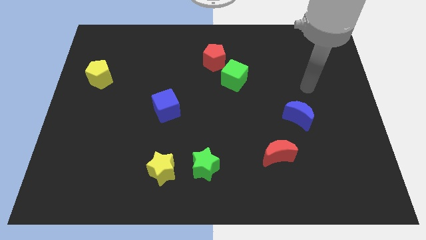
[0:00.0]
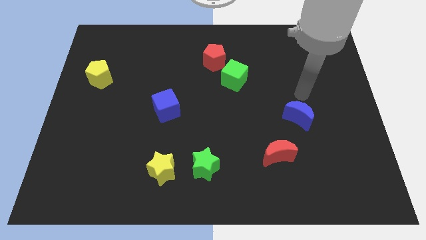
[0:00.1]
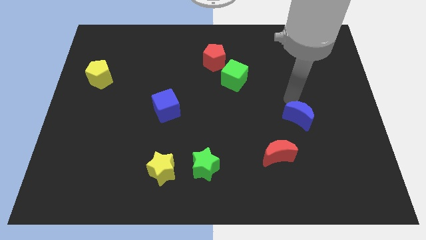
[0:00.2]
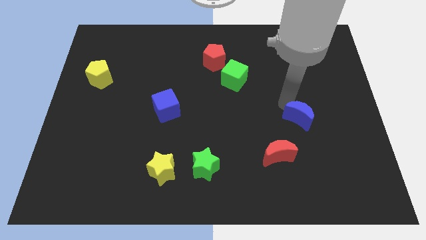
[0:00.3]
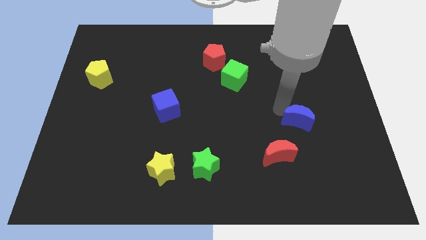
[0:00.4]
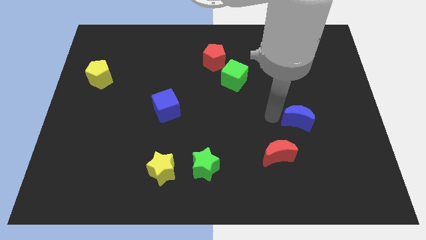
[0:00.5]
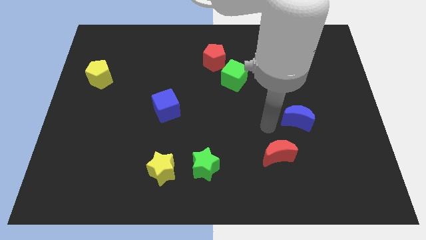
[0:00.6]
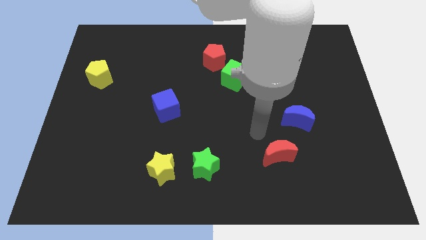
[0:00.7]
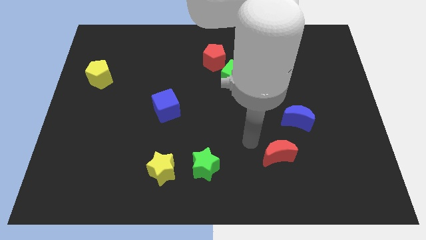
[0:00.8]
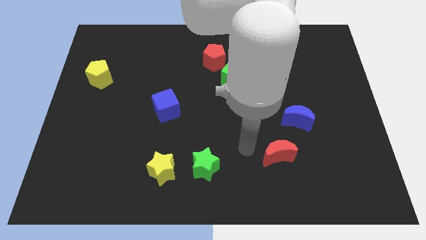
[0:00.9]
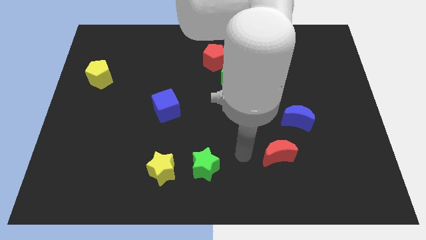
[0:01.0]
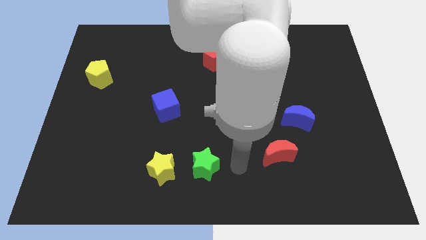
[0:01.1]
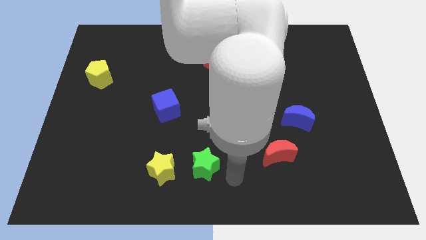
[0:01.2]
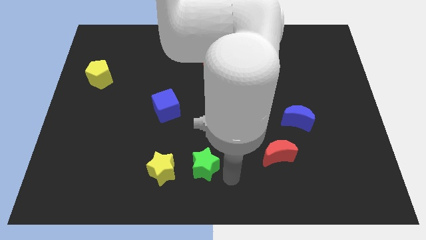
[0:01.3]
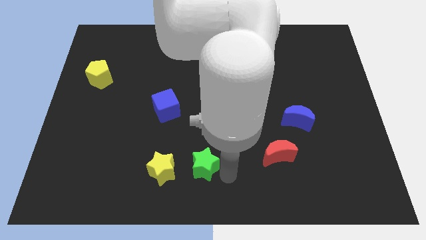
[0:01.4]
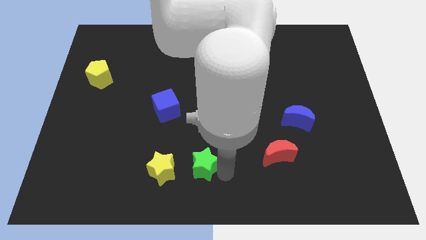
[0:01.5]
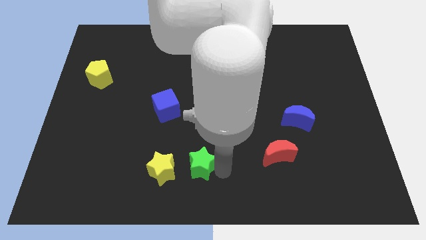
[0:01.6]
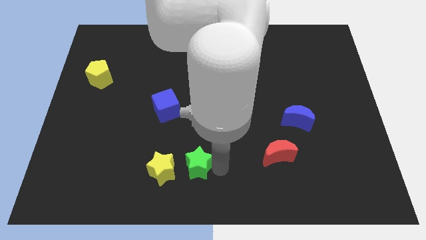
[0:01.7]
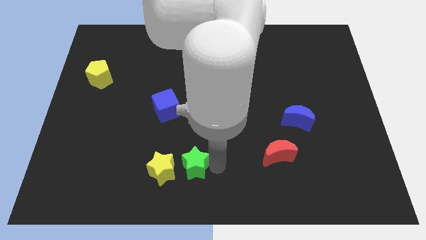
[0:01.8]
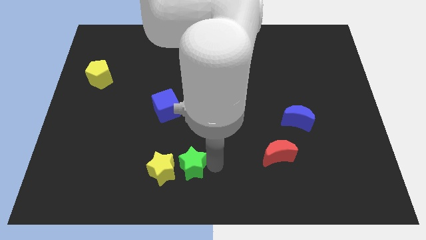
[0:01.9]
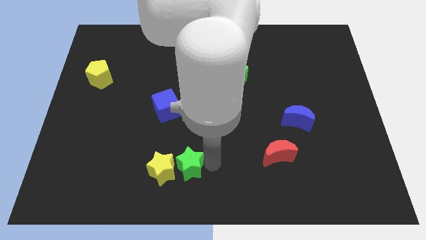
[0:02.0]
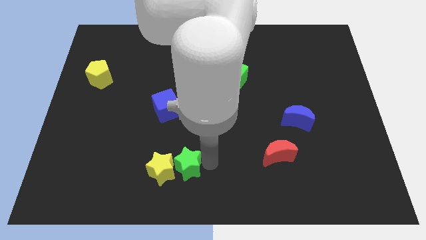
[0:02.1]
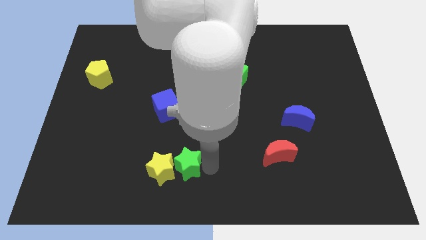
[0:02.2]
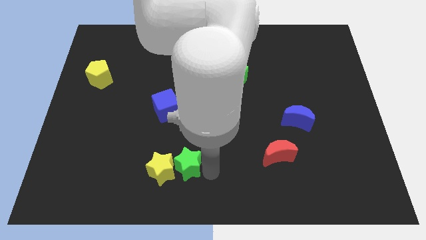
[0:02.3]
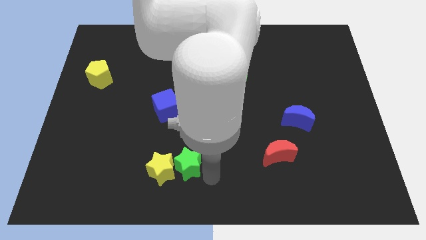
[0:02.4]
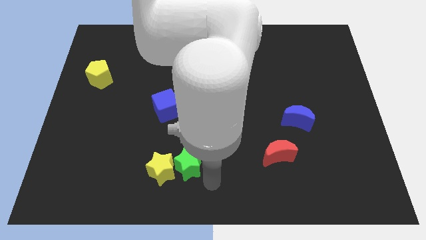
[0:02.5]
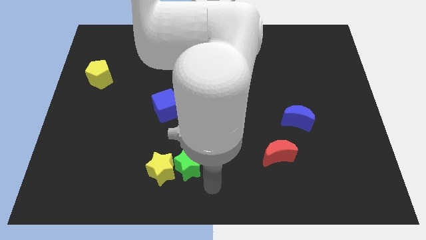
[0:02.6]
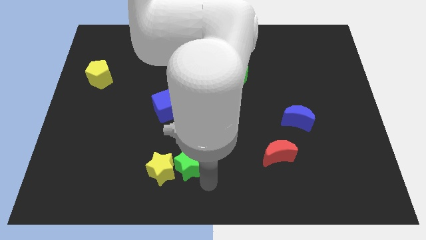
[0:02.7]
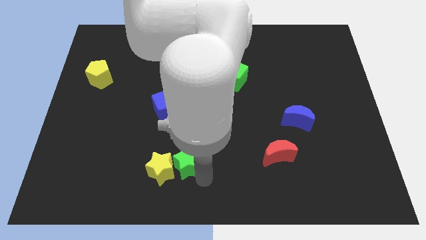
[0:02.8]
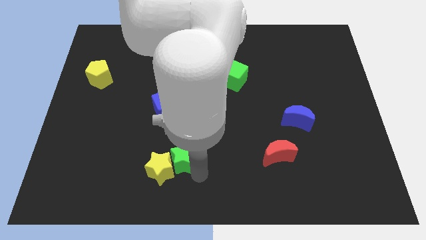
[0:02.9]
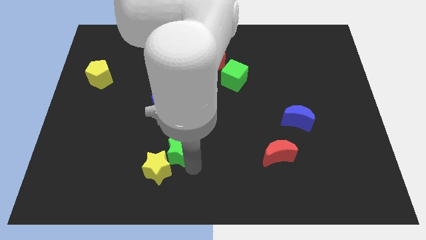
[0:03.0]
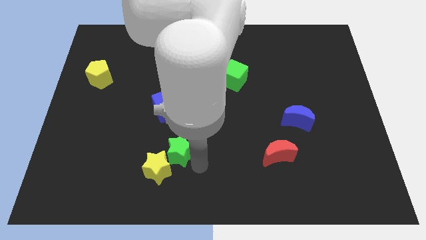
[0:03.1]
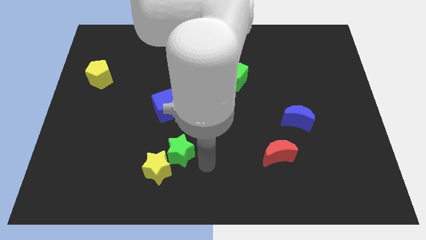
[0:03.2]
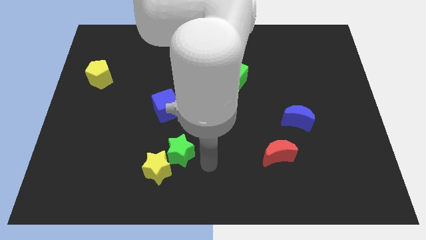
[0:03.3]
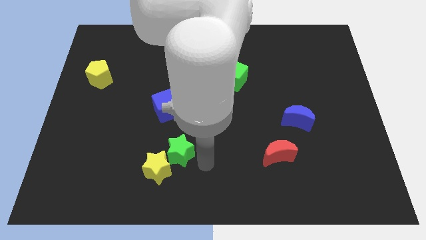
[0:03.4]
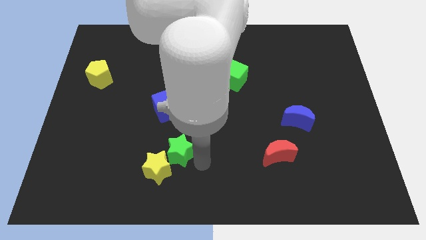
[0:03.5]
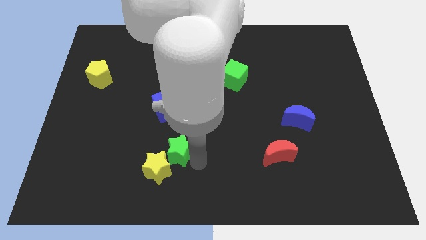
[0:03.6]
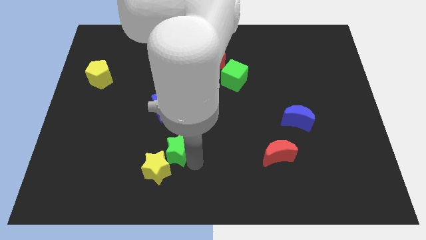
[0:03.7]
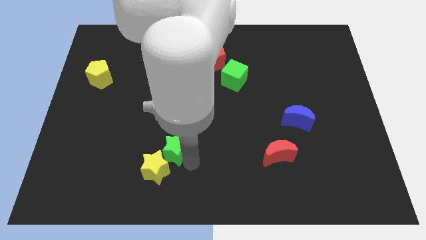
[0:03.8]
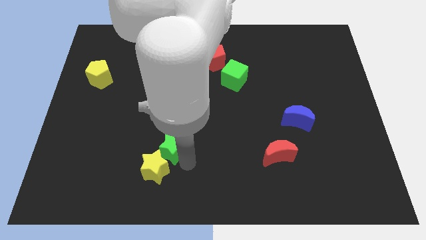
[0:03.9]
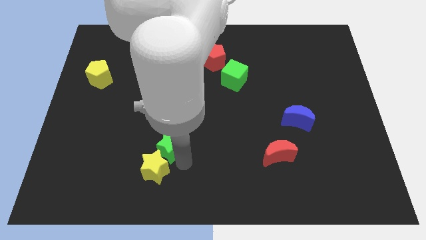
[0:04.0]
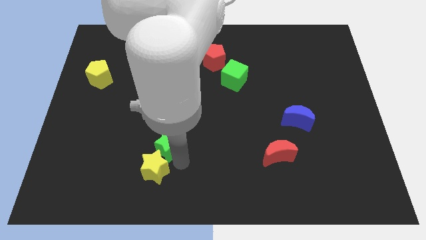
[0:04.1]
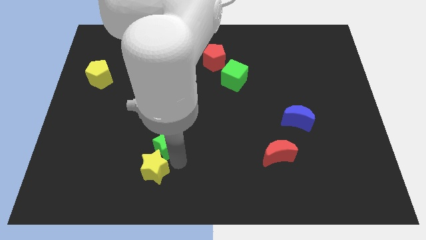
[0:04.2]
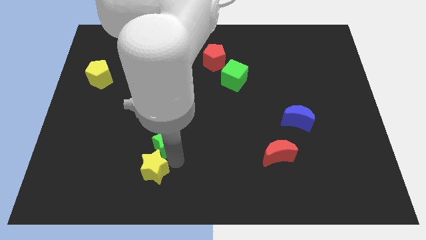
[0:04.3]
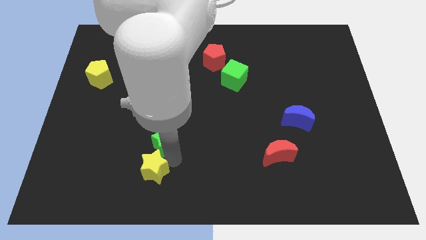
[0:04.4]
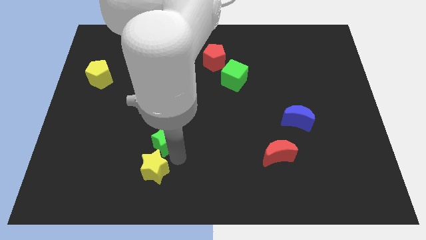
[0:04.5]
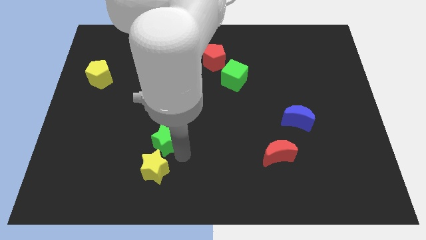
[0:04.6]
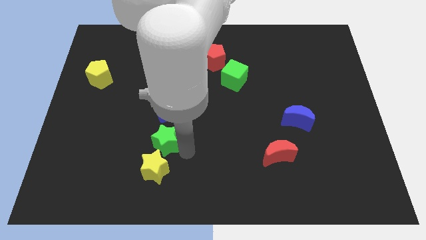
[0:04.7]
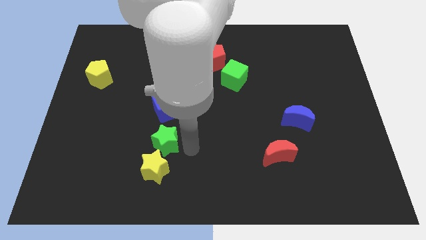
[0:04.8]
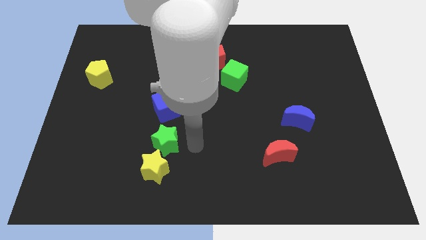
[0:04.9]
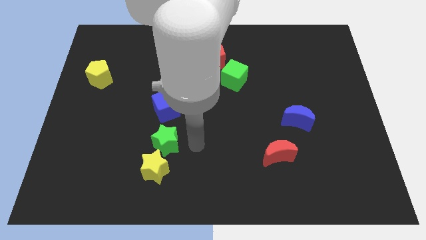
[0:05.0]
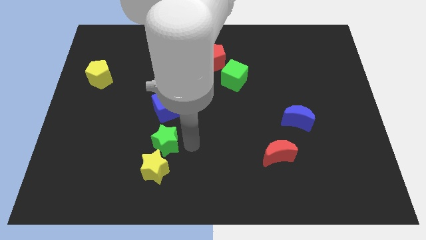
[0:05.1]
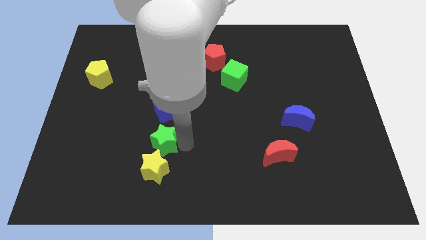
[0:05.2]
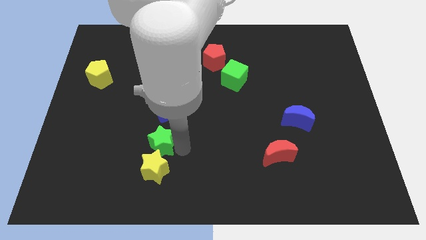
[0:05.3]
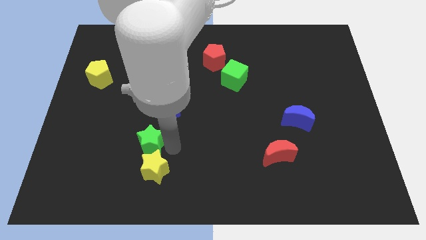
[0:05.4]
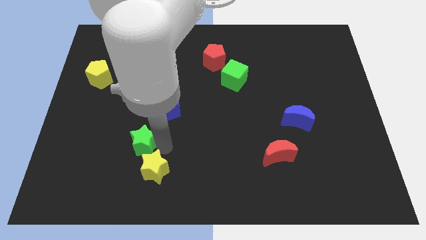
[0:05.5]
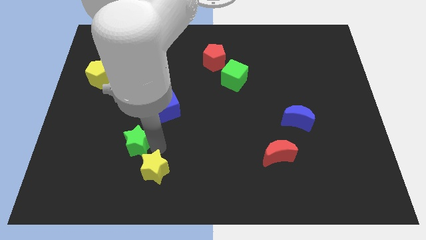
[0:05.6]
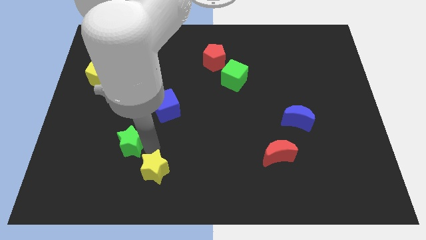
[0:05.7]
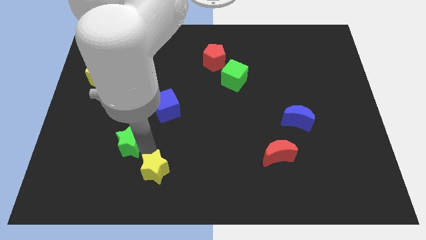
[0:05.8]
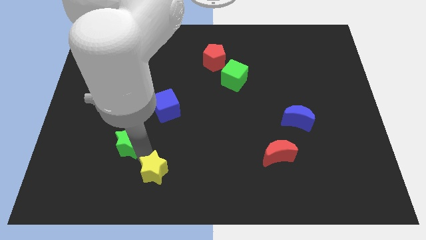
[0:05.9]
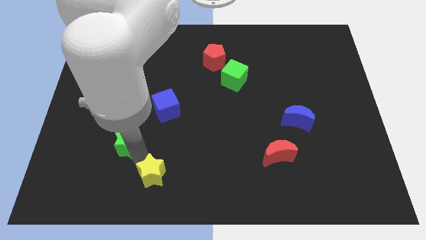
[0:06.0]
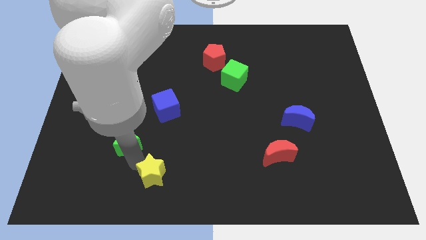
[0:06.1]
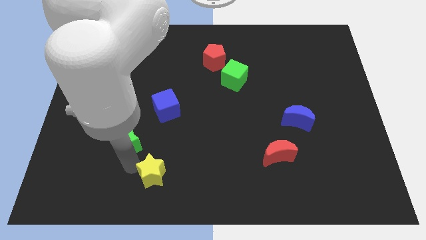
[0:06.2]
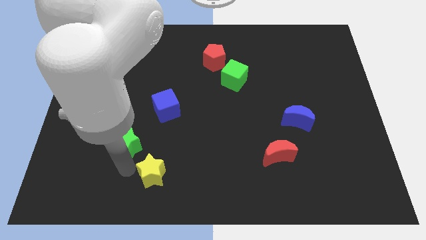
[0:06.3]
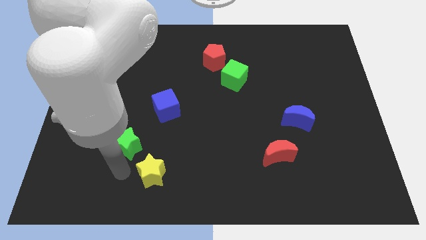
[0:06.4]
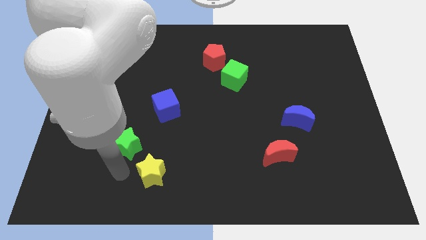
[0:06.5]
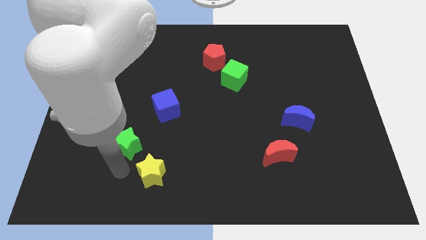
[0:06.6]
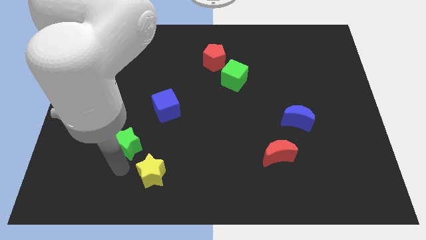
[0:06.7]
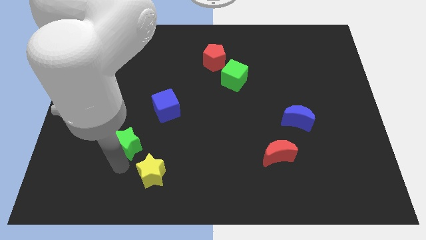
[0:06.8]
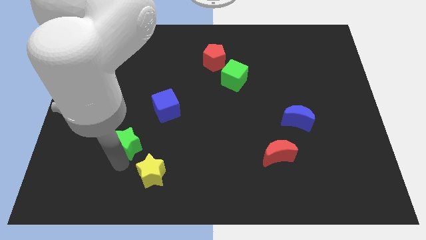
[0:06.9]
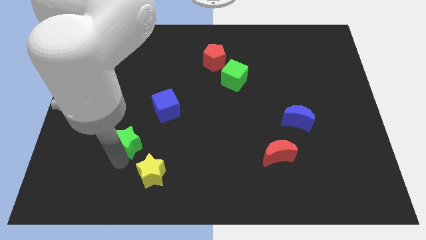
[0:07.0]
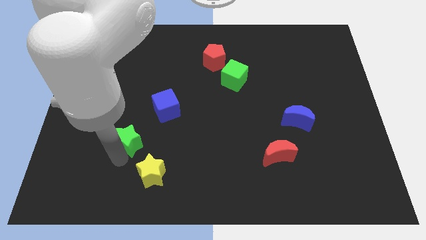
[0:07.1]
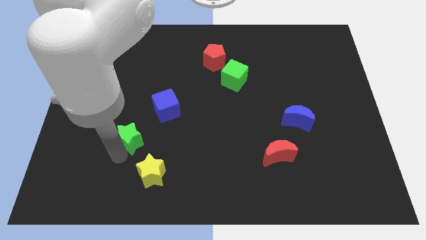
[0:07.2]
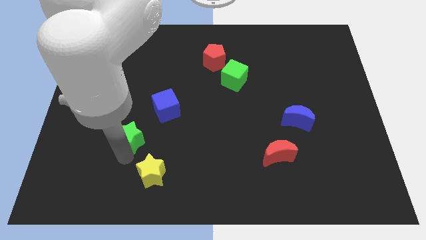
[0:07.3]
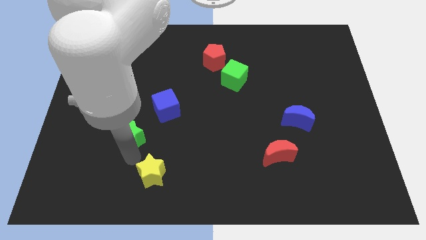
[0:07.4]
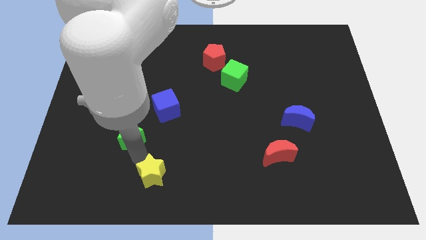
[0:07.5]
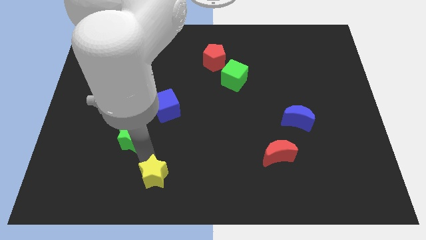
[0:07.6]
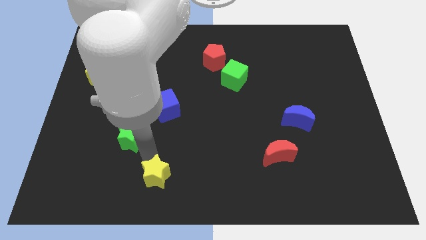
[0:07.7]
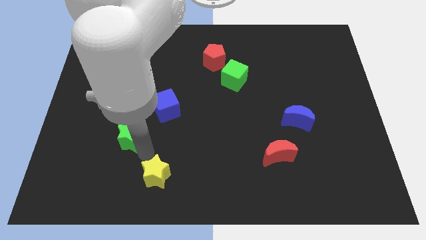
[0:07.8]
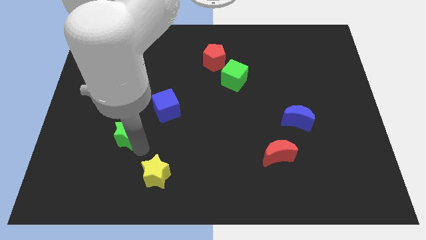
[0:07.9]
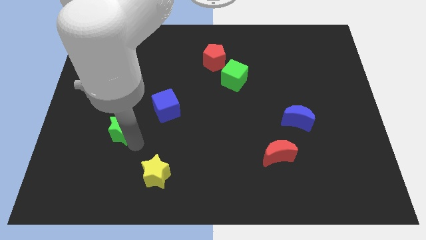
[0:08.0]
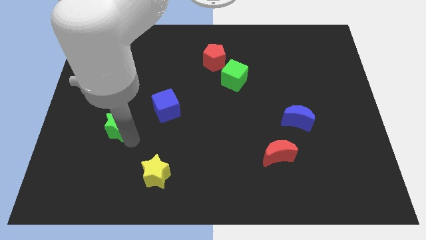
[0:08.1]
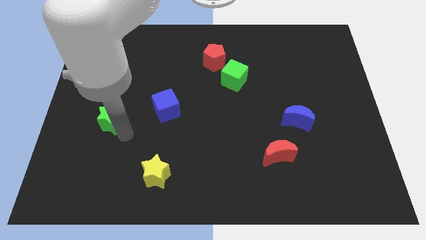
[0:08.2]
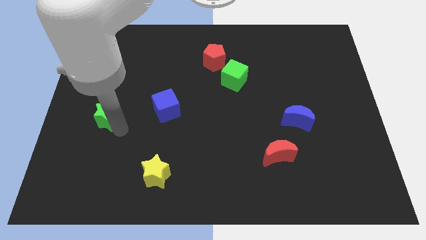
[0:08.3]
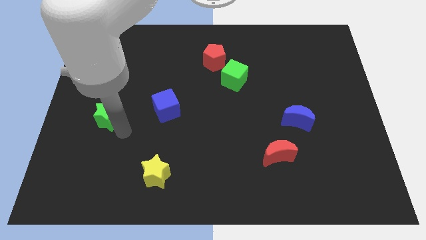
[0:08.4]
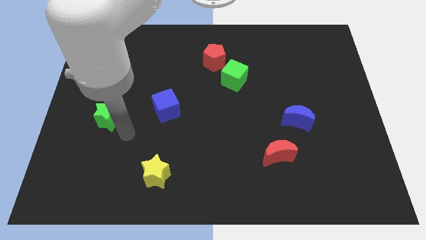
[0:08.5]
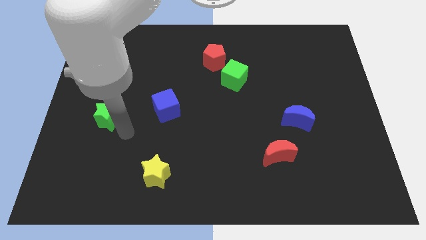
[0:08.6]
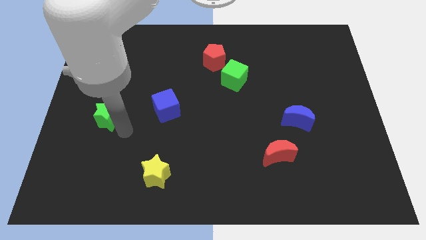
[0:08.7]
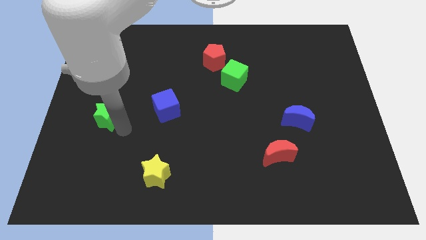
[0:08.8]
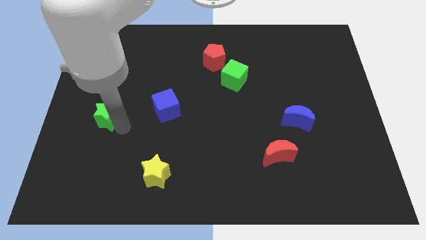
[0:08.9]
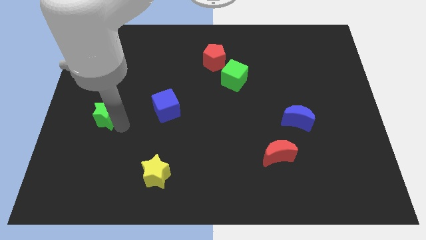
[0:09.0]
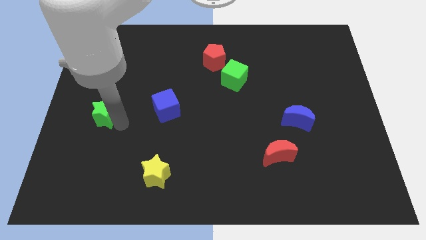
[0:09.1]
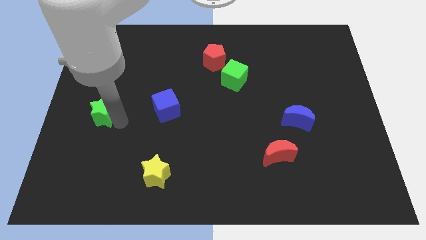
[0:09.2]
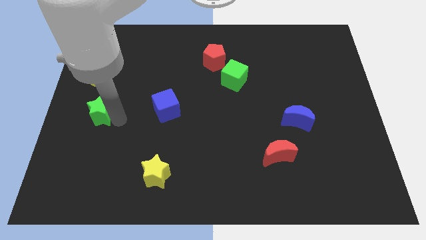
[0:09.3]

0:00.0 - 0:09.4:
push the green star to the center left
